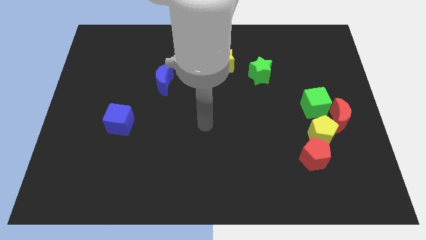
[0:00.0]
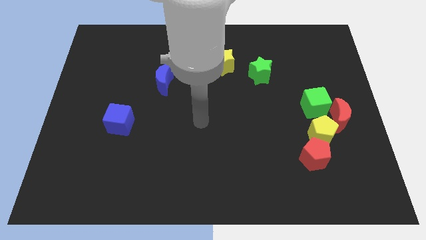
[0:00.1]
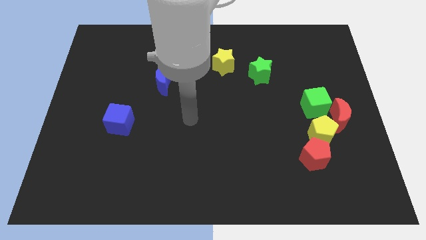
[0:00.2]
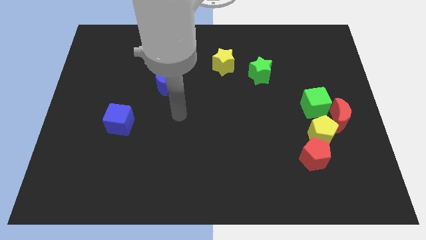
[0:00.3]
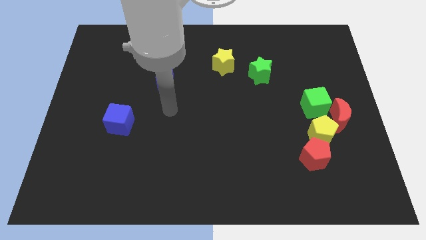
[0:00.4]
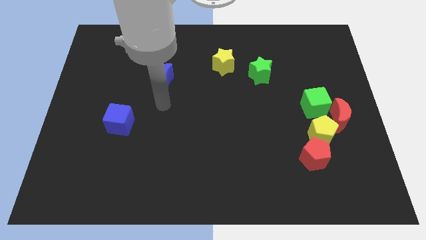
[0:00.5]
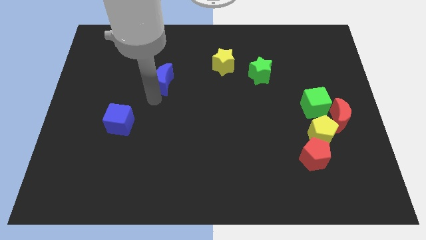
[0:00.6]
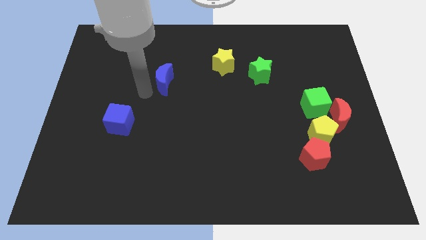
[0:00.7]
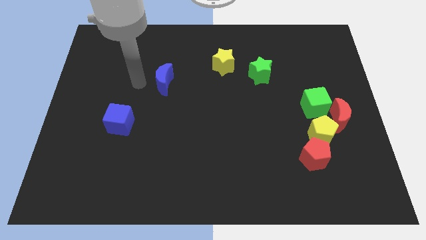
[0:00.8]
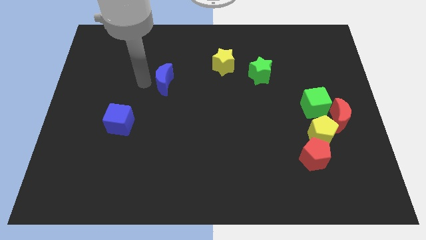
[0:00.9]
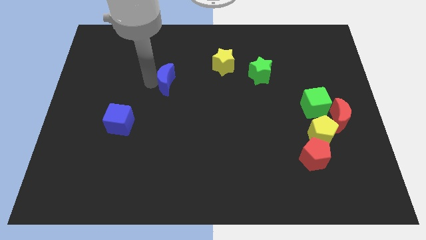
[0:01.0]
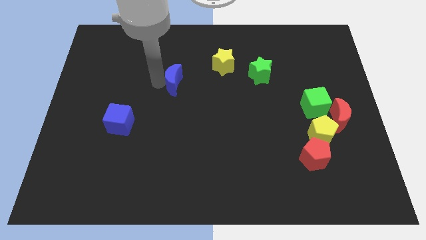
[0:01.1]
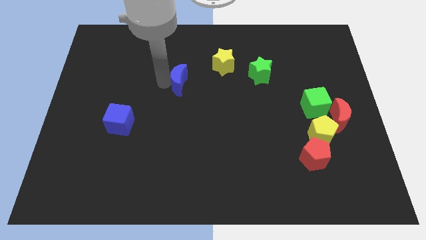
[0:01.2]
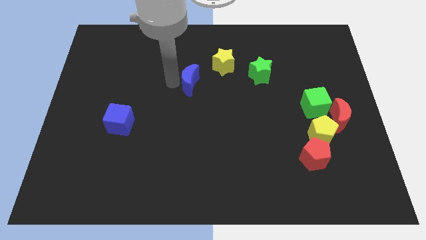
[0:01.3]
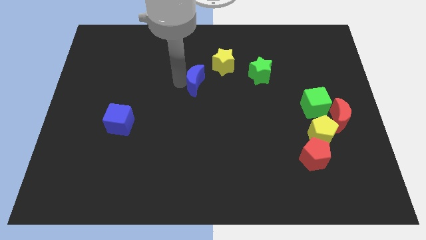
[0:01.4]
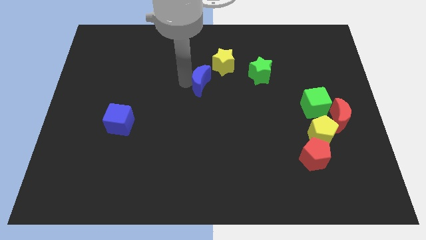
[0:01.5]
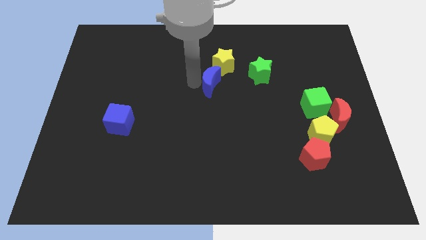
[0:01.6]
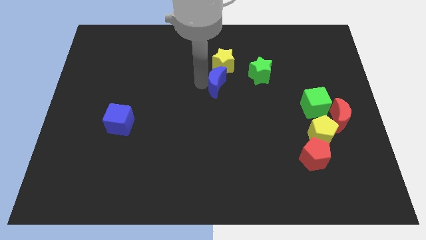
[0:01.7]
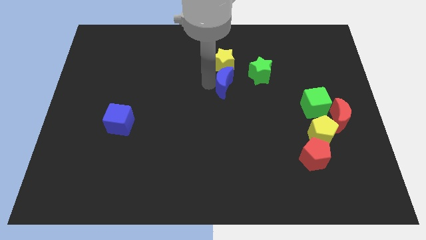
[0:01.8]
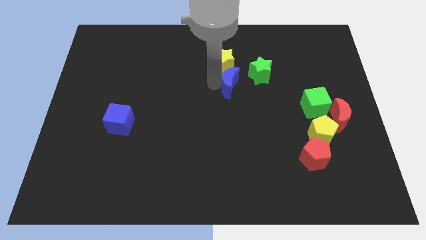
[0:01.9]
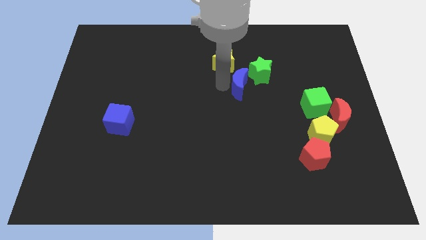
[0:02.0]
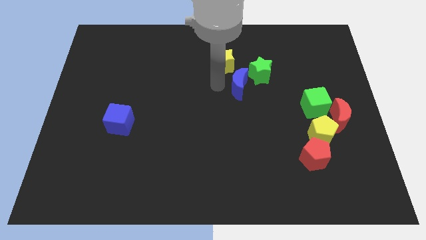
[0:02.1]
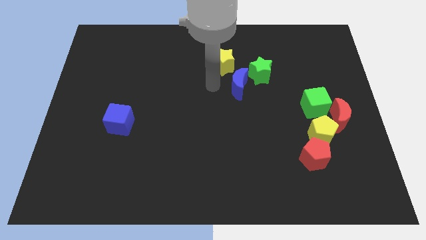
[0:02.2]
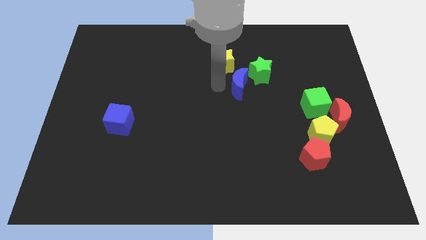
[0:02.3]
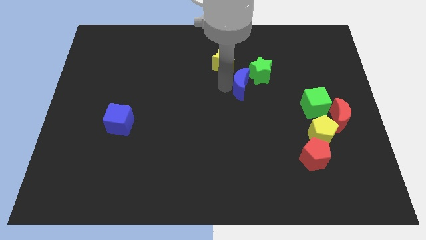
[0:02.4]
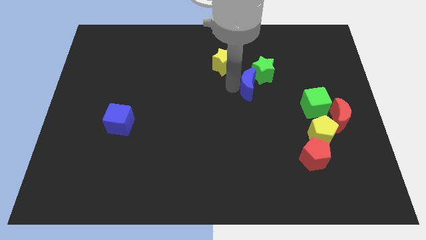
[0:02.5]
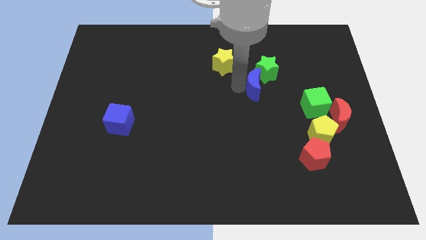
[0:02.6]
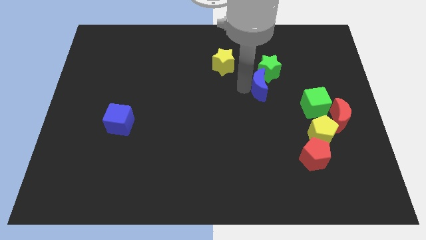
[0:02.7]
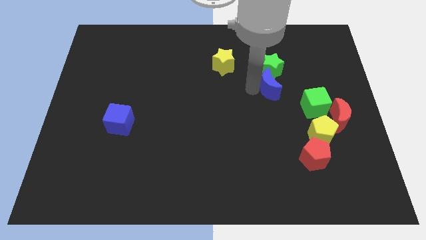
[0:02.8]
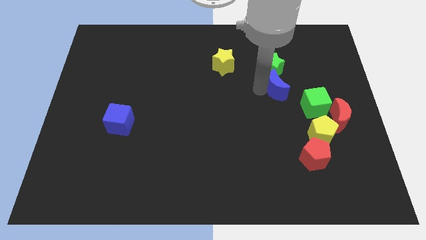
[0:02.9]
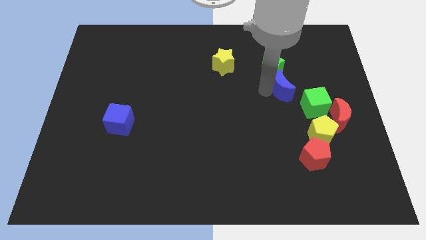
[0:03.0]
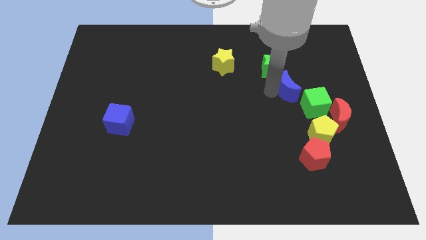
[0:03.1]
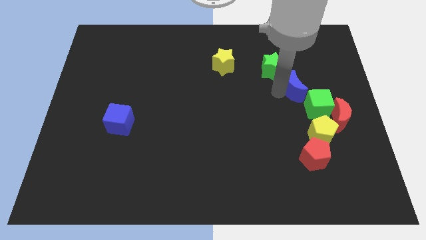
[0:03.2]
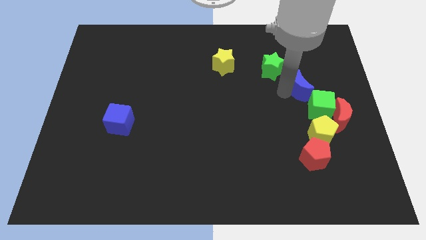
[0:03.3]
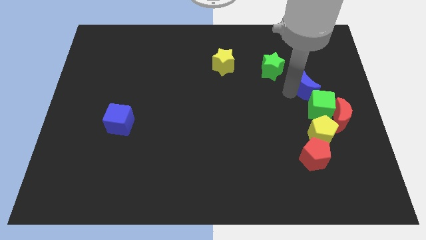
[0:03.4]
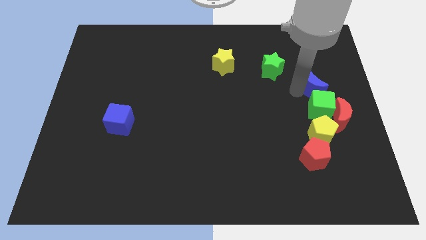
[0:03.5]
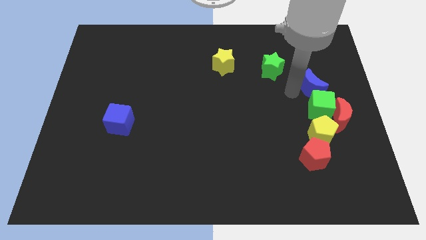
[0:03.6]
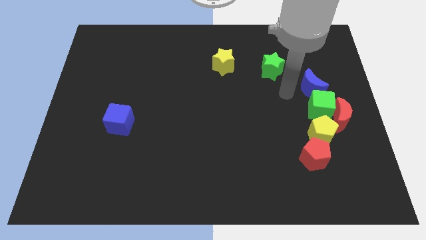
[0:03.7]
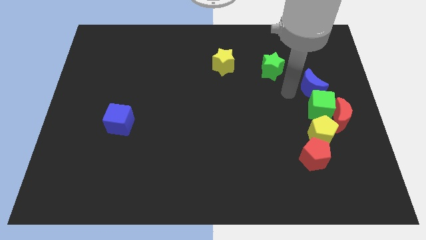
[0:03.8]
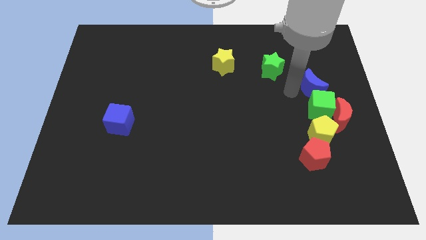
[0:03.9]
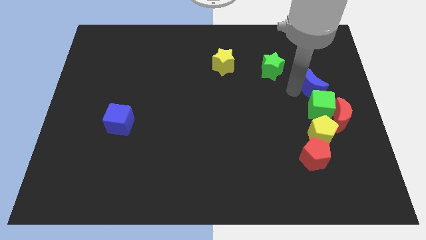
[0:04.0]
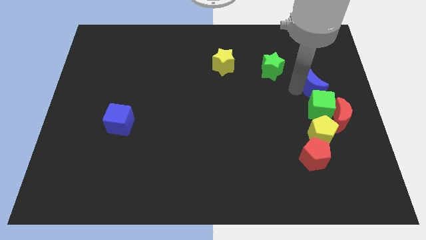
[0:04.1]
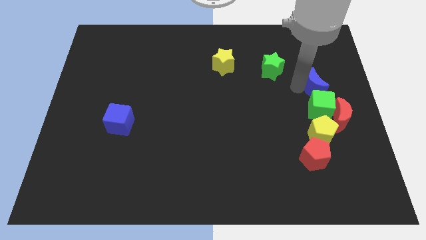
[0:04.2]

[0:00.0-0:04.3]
put the blue moon to the top of the red moon

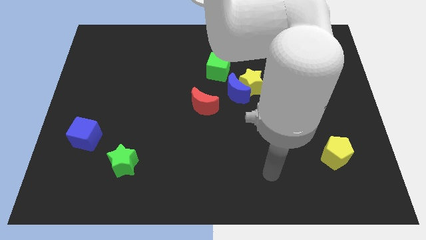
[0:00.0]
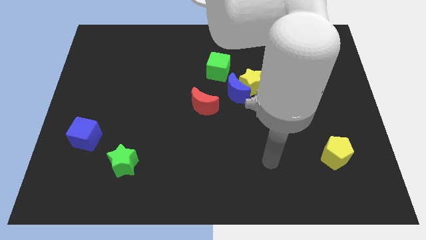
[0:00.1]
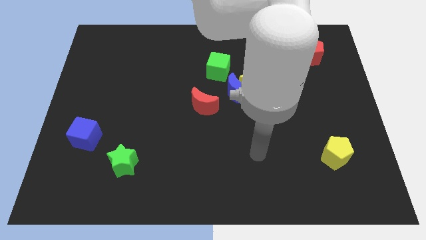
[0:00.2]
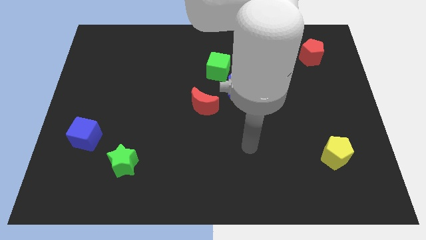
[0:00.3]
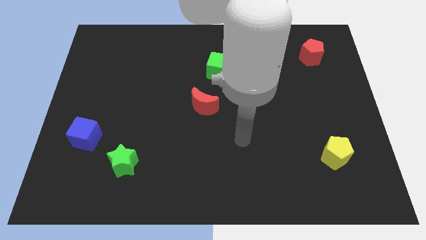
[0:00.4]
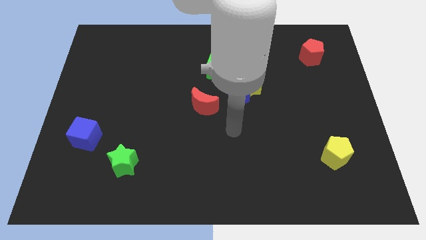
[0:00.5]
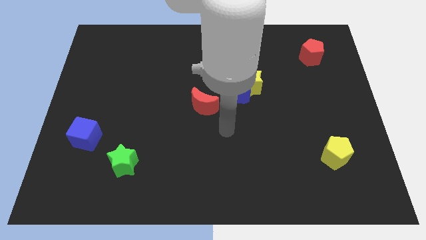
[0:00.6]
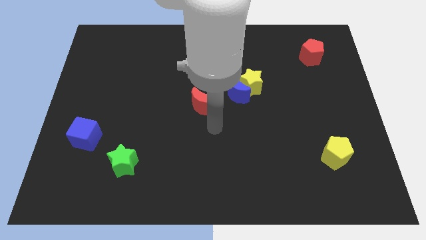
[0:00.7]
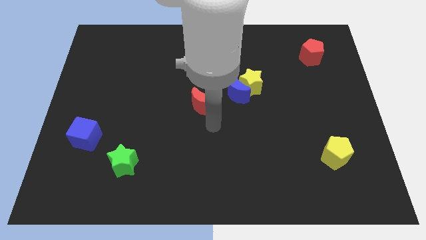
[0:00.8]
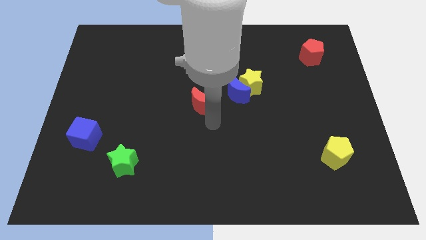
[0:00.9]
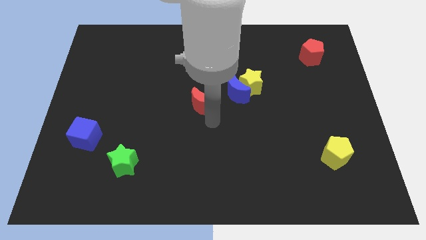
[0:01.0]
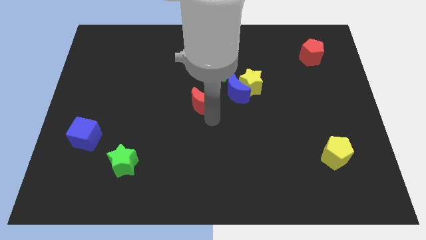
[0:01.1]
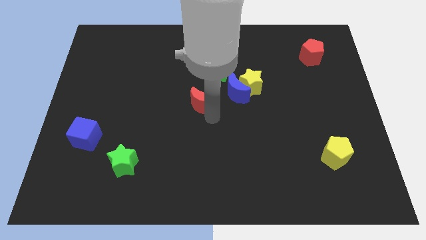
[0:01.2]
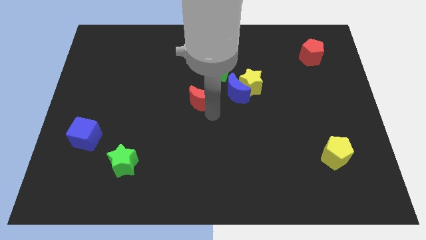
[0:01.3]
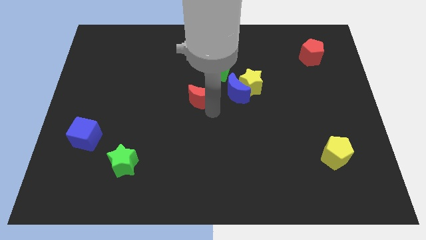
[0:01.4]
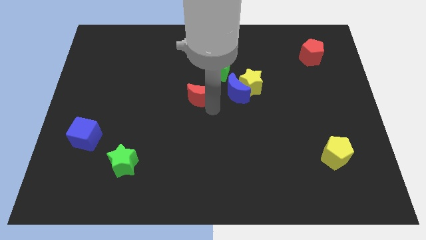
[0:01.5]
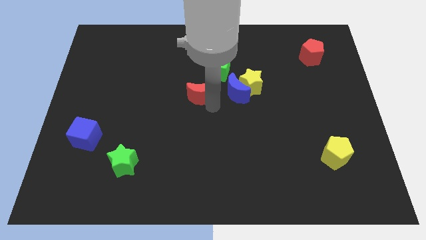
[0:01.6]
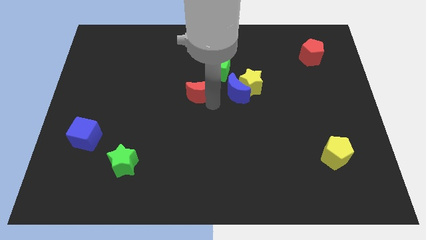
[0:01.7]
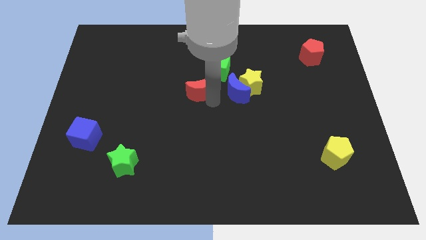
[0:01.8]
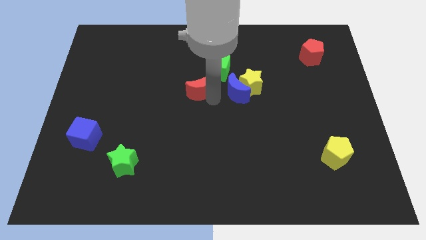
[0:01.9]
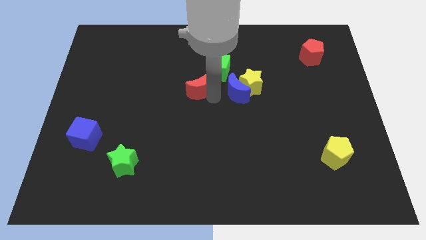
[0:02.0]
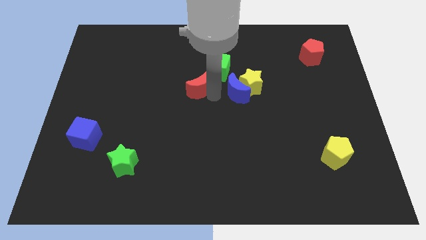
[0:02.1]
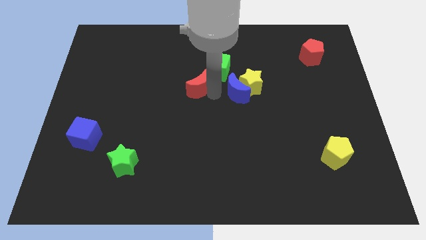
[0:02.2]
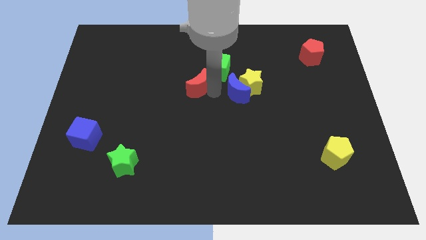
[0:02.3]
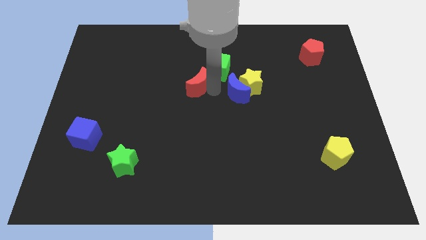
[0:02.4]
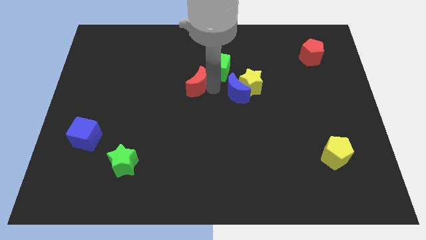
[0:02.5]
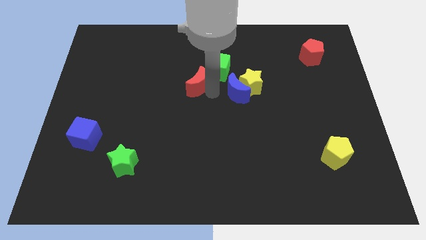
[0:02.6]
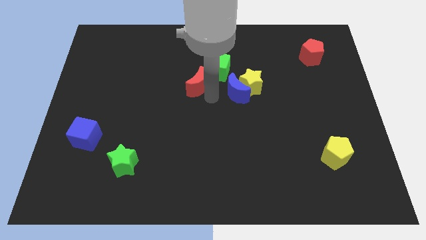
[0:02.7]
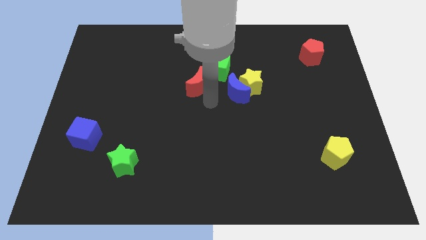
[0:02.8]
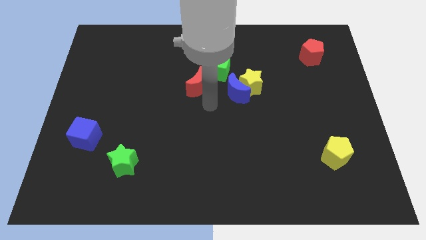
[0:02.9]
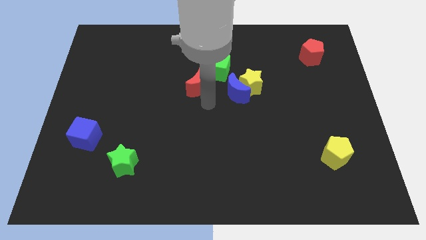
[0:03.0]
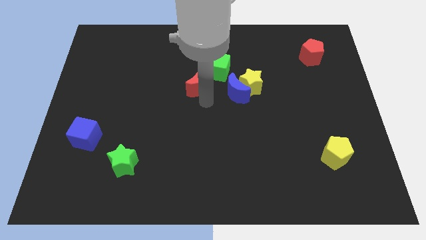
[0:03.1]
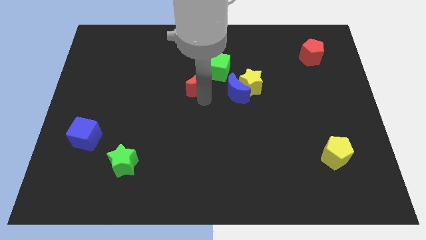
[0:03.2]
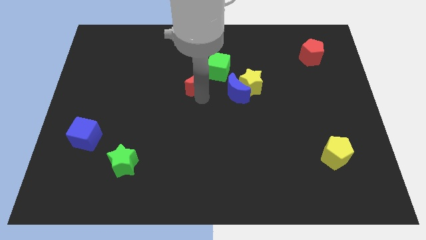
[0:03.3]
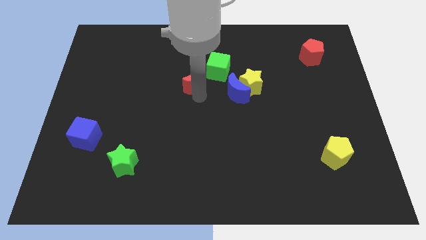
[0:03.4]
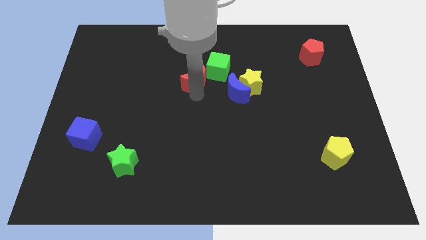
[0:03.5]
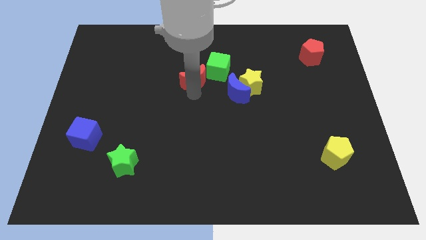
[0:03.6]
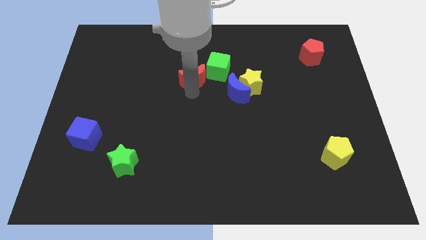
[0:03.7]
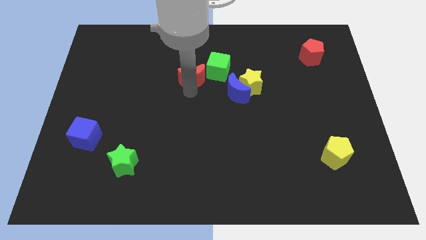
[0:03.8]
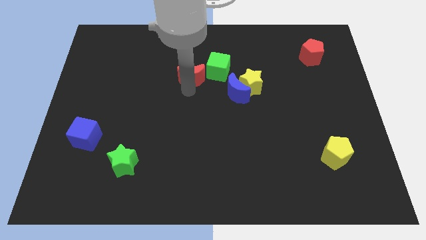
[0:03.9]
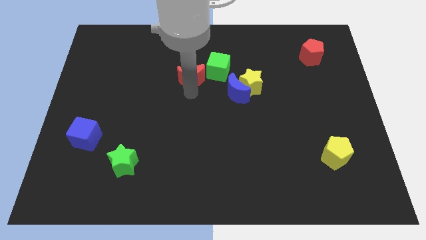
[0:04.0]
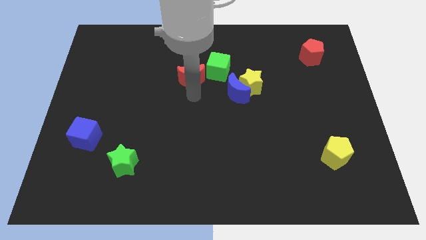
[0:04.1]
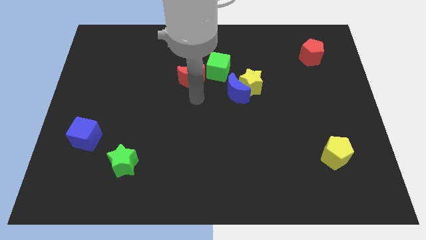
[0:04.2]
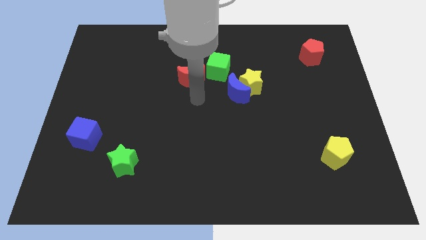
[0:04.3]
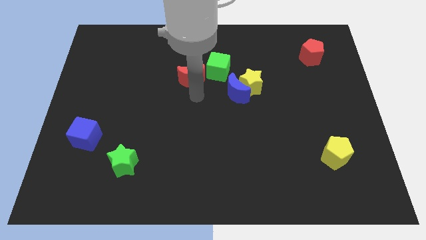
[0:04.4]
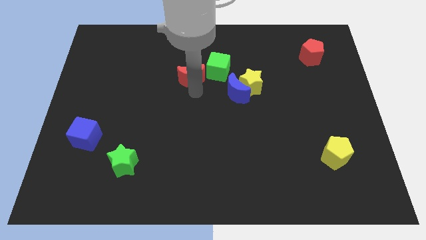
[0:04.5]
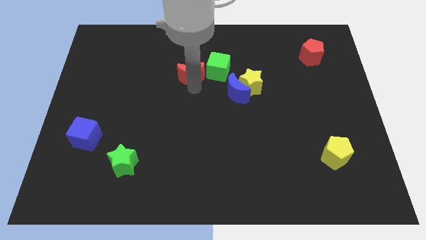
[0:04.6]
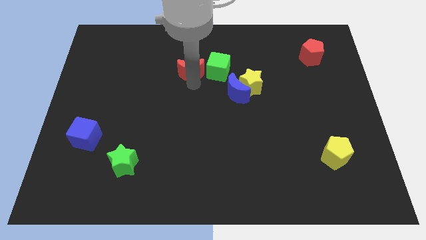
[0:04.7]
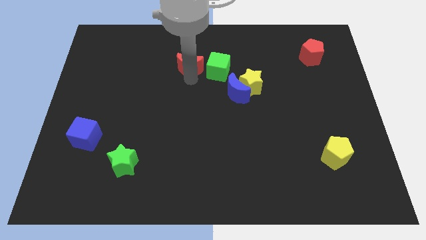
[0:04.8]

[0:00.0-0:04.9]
move the red moon to the top left of the green cube
